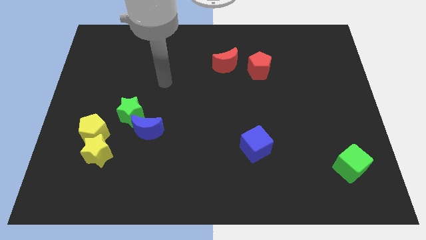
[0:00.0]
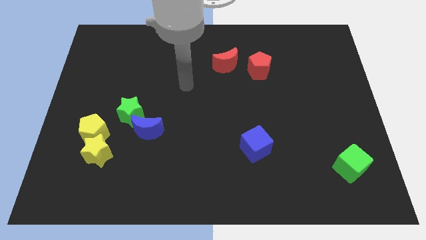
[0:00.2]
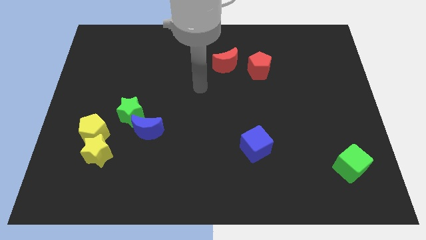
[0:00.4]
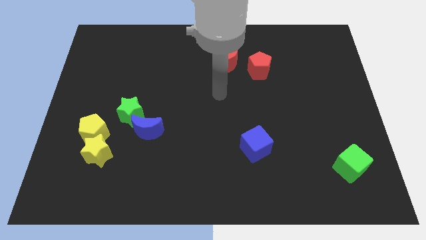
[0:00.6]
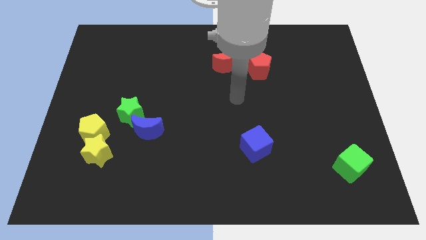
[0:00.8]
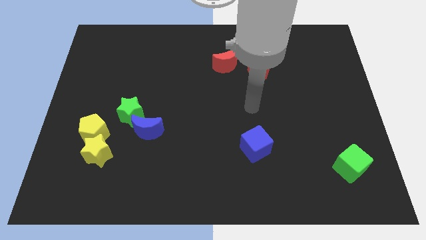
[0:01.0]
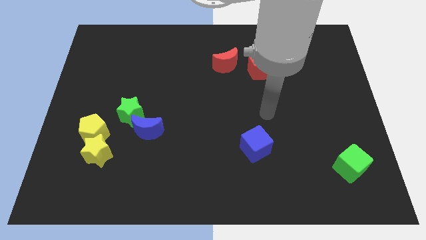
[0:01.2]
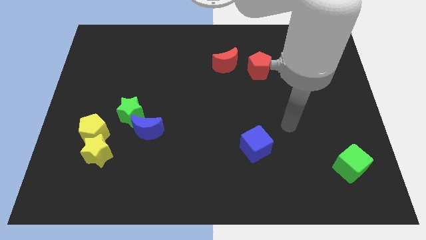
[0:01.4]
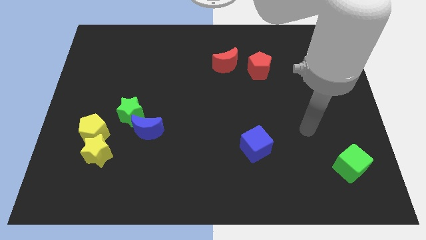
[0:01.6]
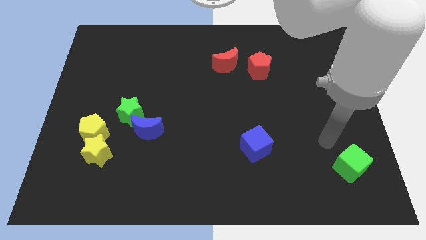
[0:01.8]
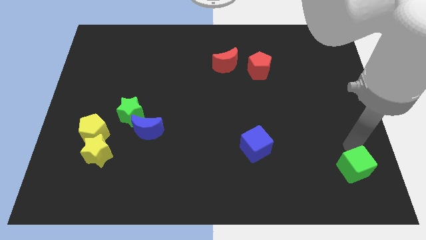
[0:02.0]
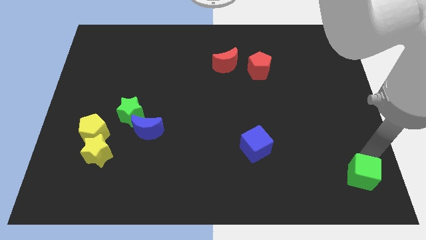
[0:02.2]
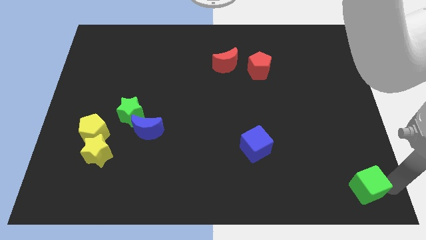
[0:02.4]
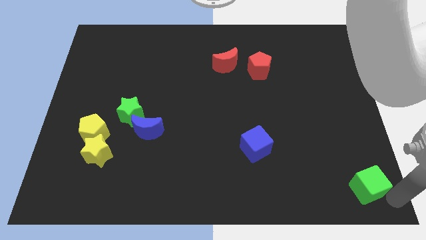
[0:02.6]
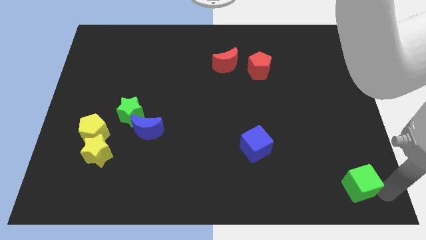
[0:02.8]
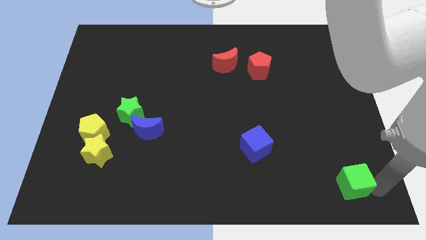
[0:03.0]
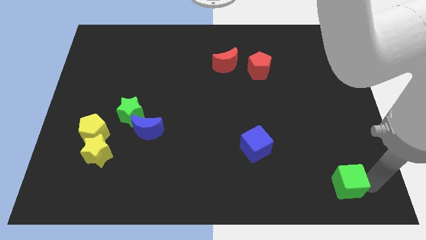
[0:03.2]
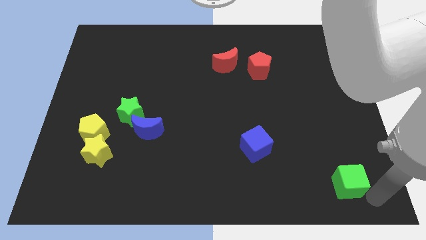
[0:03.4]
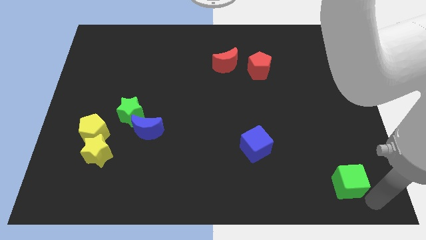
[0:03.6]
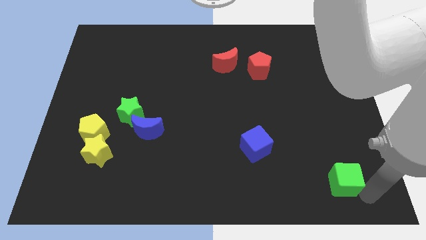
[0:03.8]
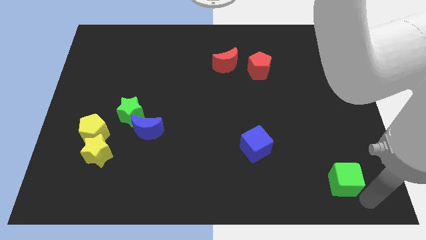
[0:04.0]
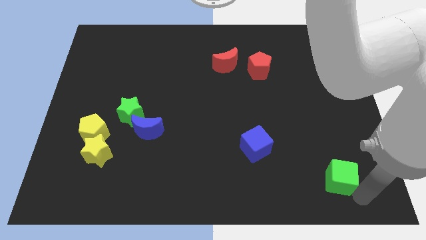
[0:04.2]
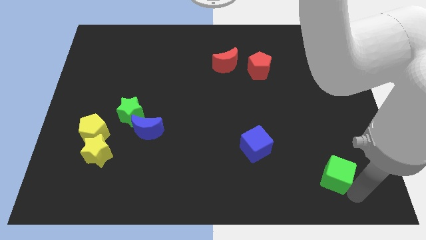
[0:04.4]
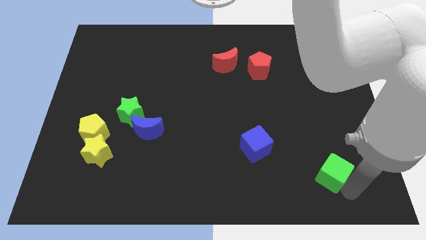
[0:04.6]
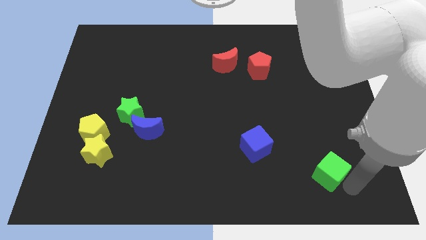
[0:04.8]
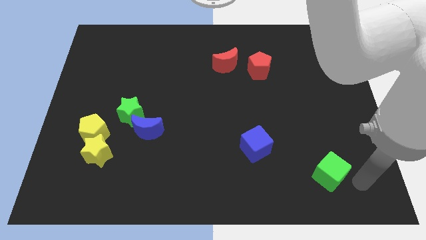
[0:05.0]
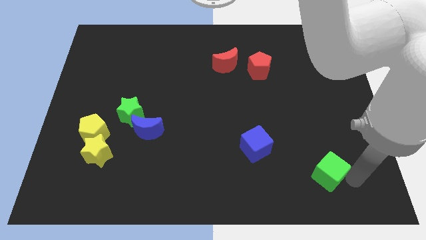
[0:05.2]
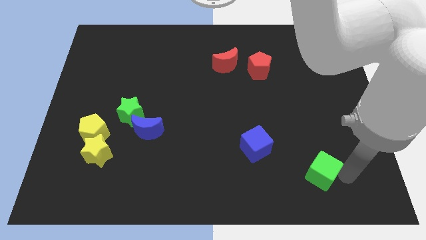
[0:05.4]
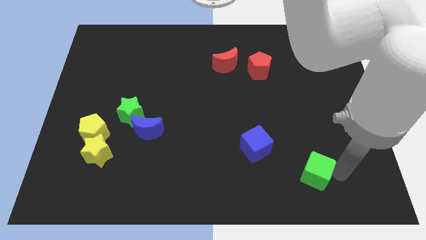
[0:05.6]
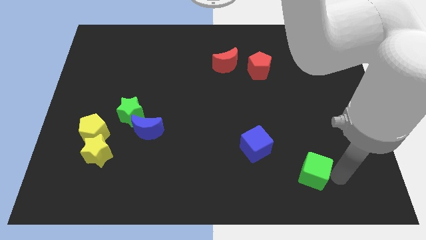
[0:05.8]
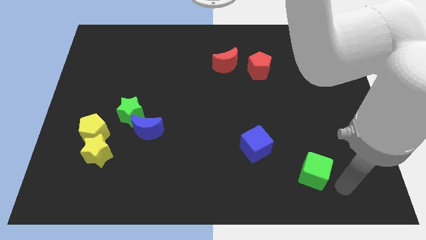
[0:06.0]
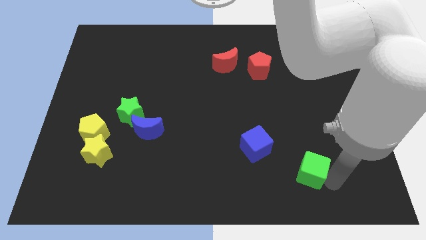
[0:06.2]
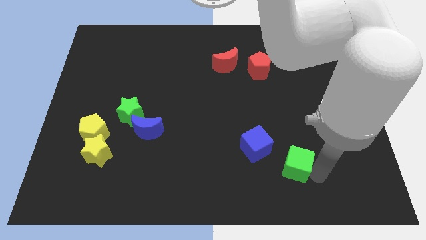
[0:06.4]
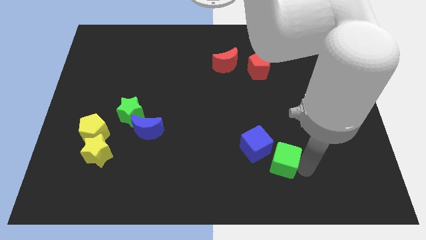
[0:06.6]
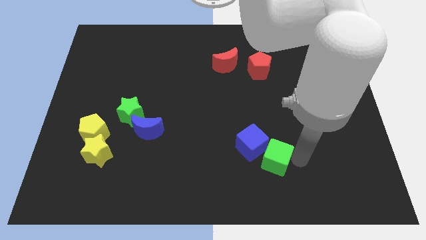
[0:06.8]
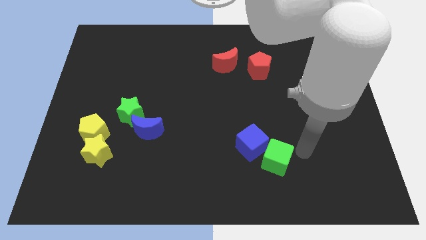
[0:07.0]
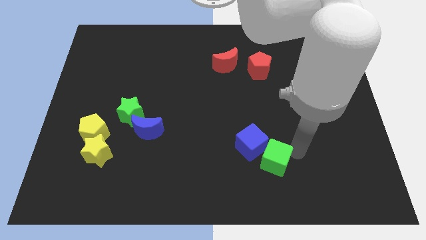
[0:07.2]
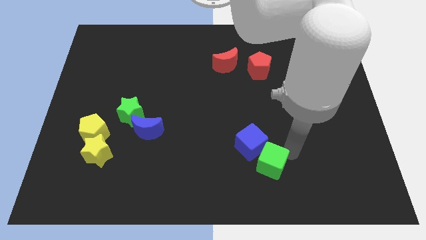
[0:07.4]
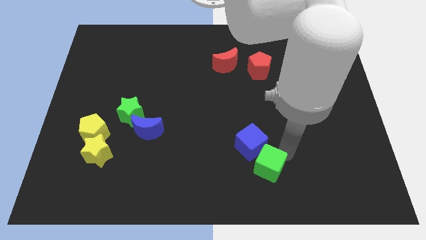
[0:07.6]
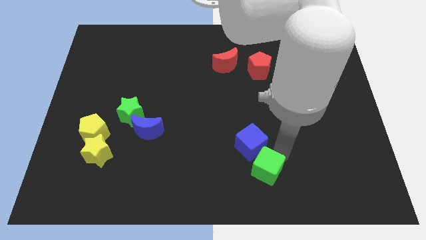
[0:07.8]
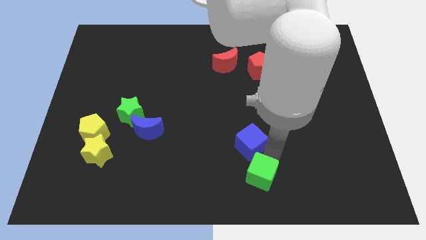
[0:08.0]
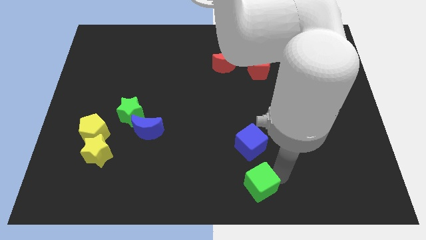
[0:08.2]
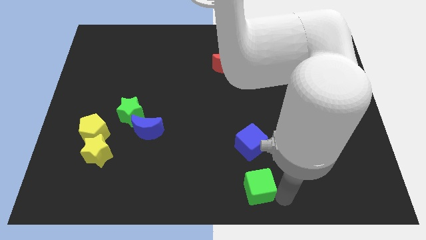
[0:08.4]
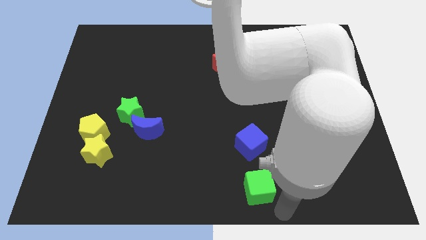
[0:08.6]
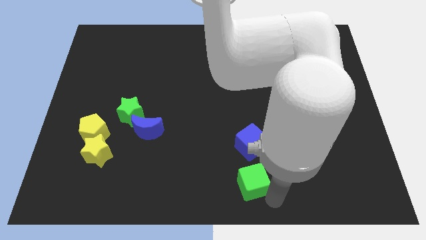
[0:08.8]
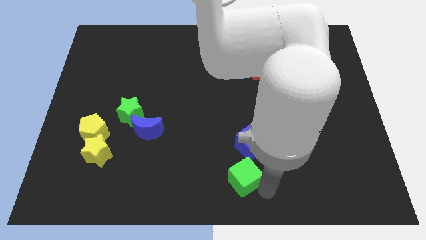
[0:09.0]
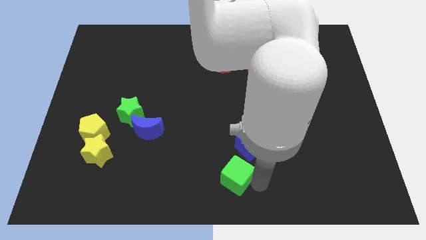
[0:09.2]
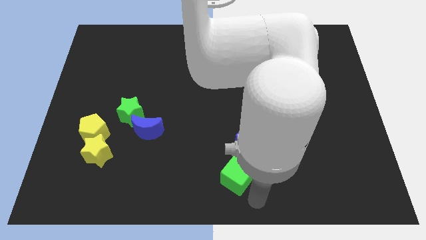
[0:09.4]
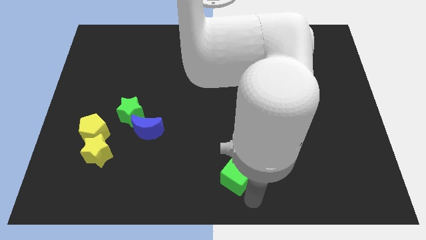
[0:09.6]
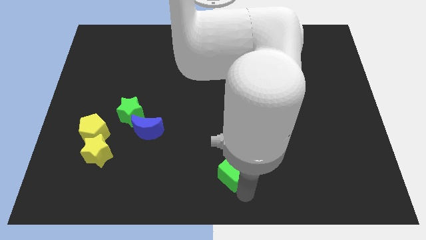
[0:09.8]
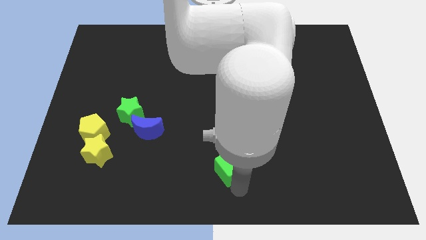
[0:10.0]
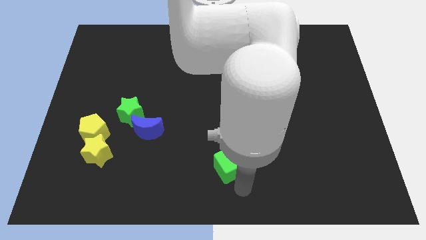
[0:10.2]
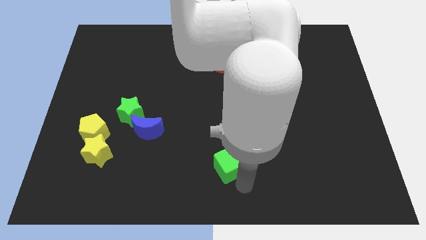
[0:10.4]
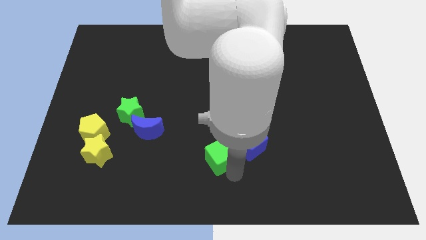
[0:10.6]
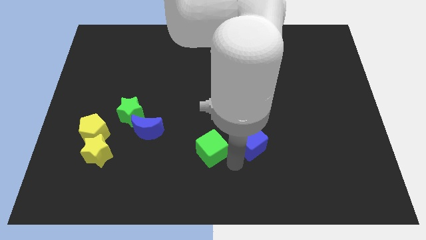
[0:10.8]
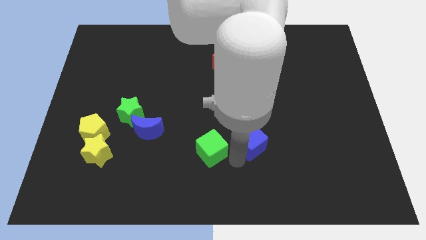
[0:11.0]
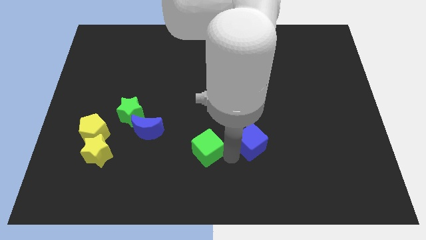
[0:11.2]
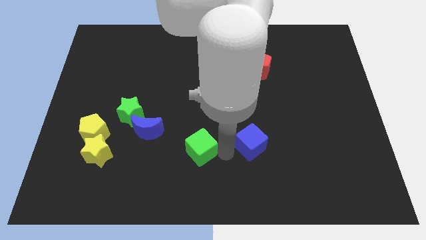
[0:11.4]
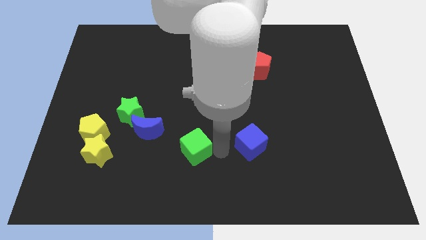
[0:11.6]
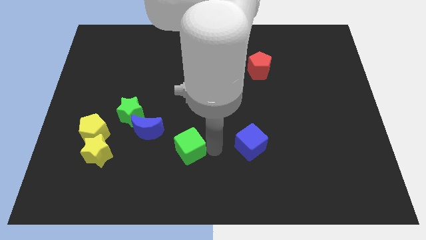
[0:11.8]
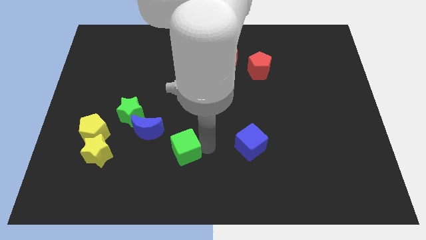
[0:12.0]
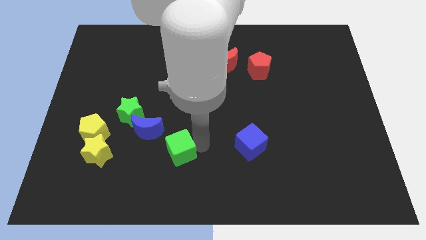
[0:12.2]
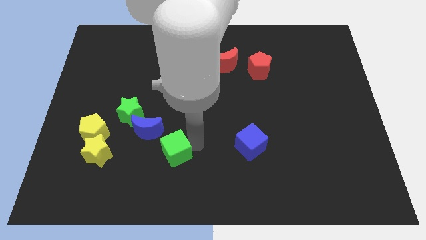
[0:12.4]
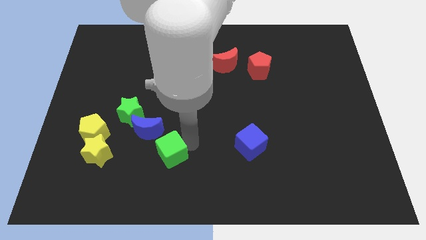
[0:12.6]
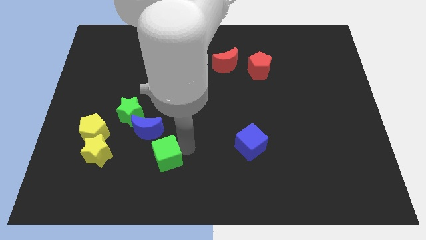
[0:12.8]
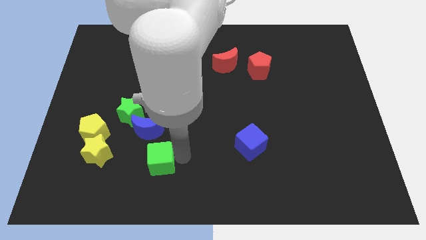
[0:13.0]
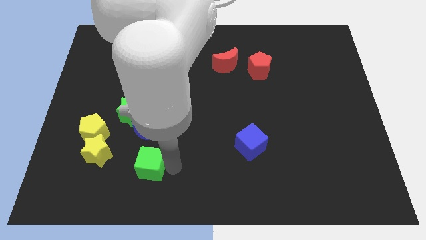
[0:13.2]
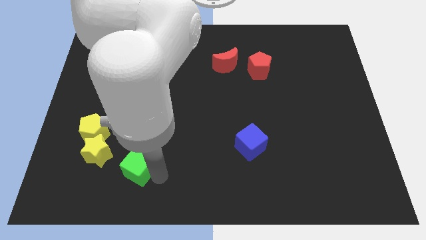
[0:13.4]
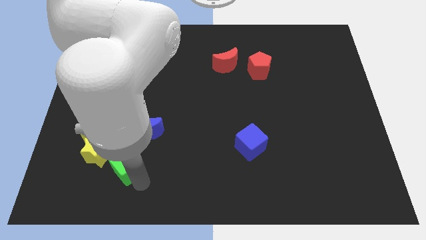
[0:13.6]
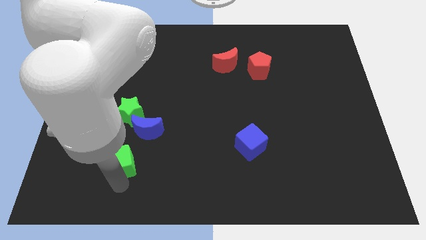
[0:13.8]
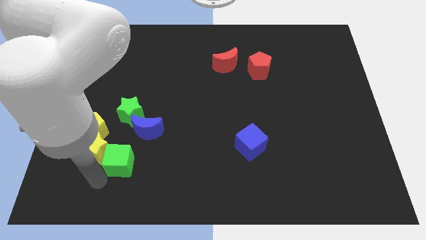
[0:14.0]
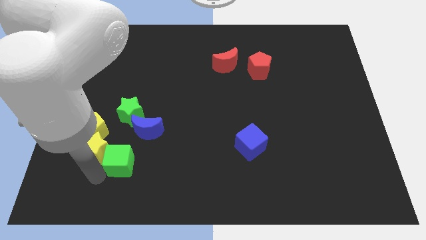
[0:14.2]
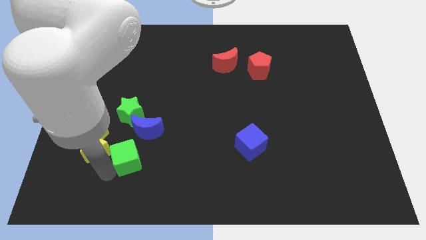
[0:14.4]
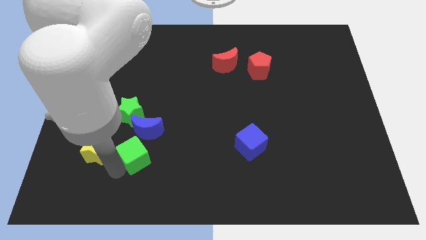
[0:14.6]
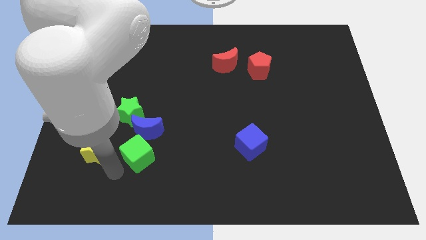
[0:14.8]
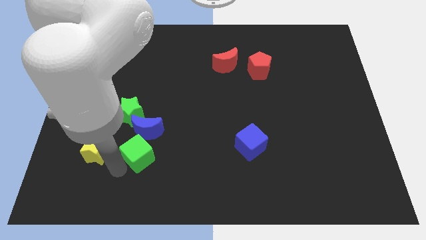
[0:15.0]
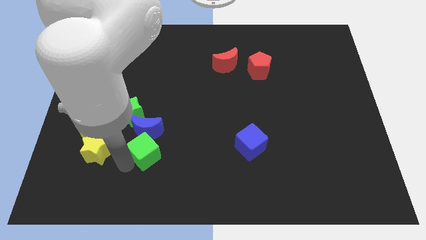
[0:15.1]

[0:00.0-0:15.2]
move the green cube towards the blue moon
